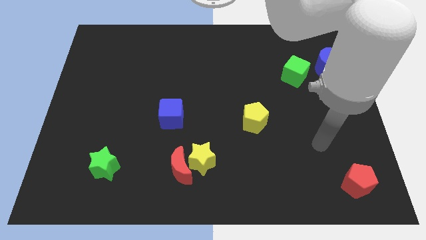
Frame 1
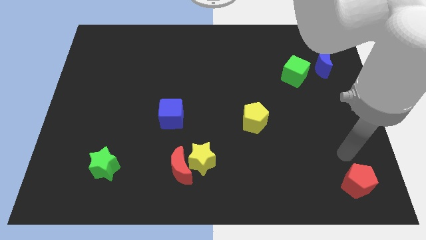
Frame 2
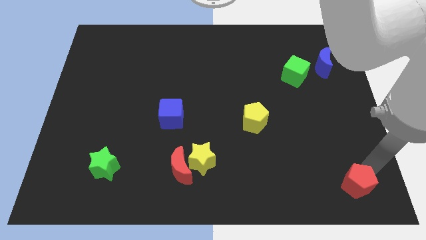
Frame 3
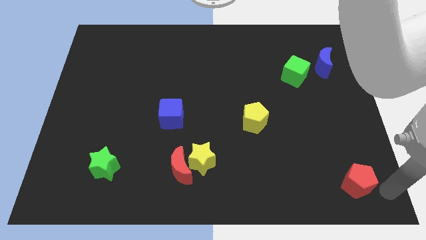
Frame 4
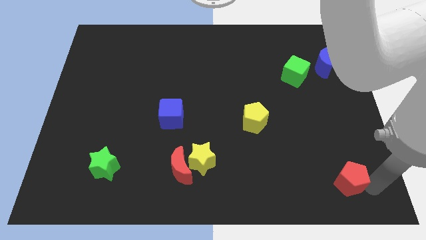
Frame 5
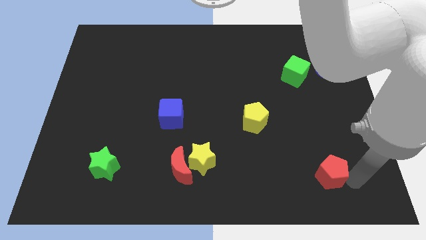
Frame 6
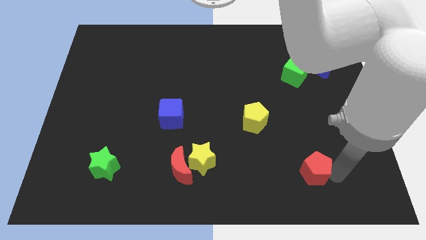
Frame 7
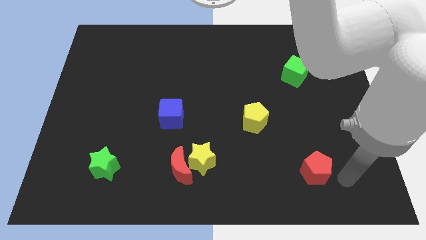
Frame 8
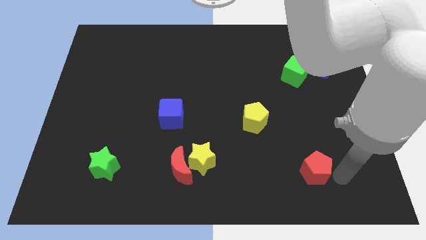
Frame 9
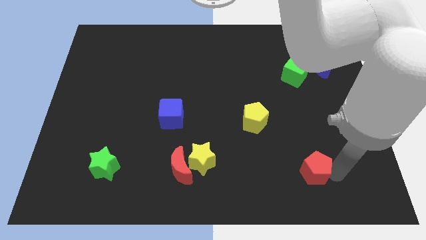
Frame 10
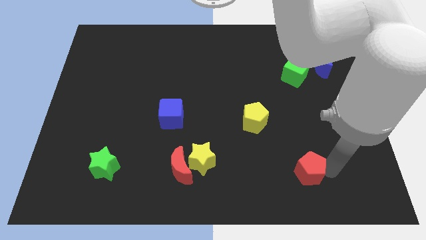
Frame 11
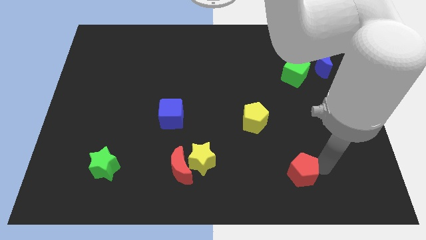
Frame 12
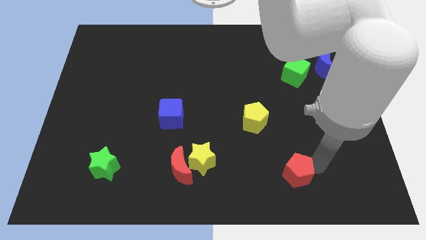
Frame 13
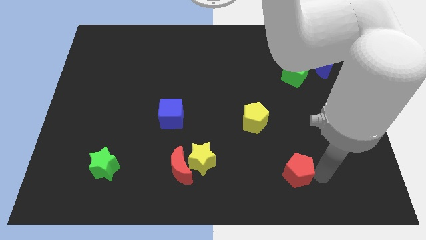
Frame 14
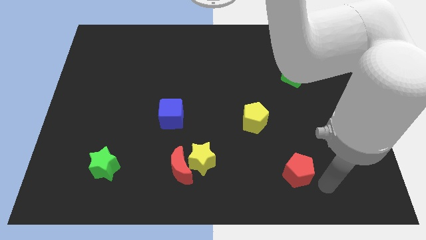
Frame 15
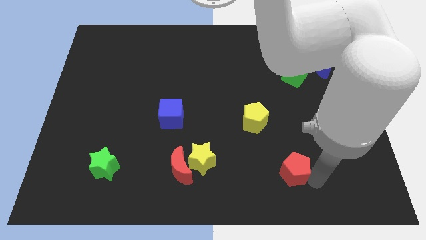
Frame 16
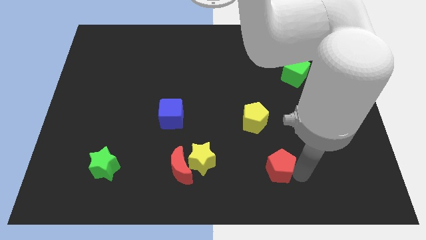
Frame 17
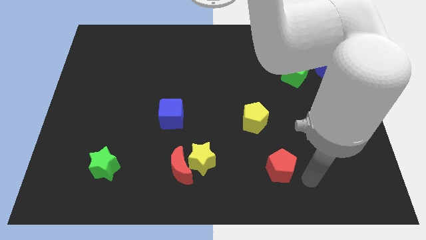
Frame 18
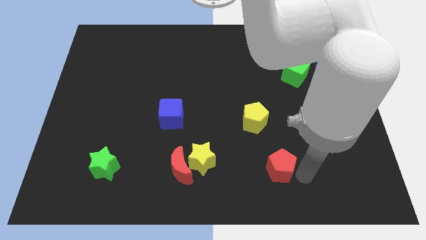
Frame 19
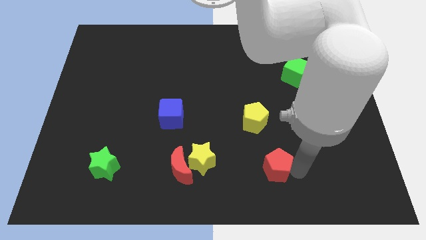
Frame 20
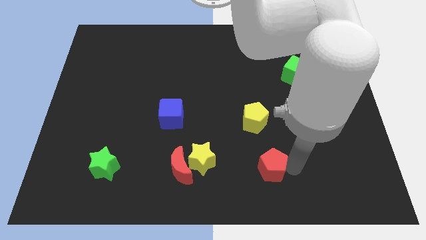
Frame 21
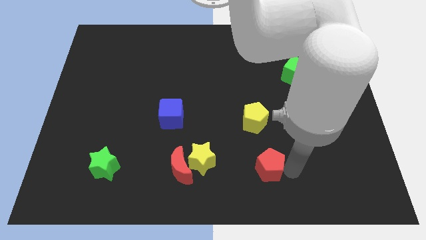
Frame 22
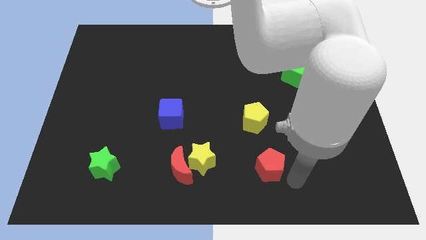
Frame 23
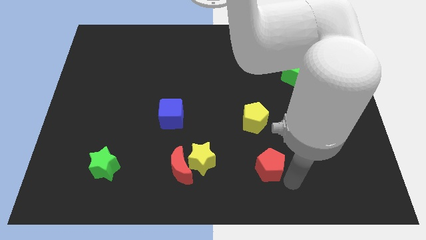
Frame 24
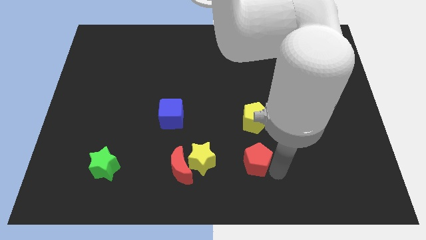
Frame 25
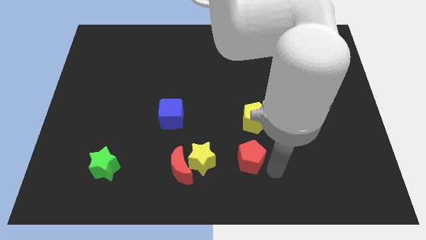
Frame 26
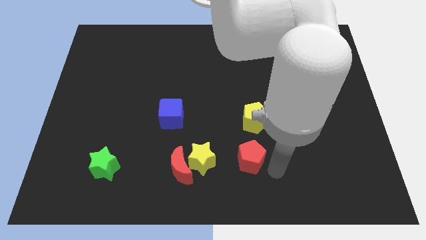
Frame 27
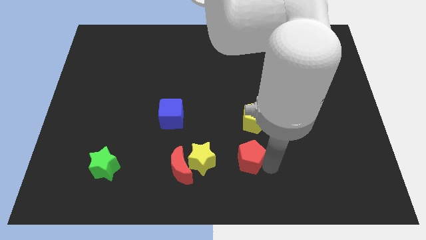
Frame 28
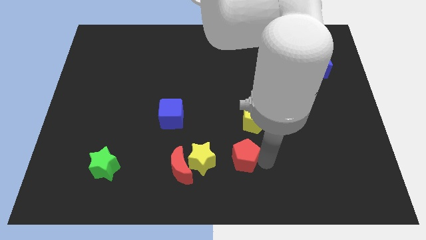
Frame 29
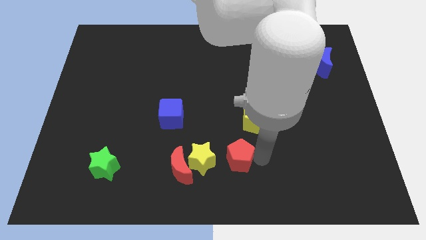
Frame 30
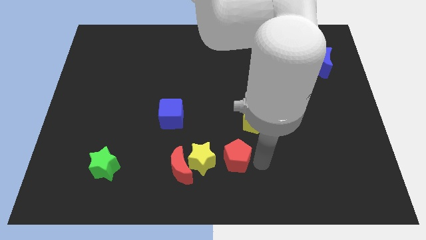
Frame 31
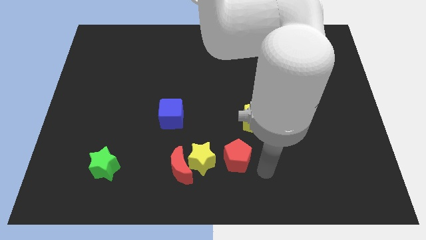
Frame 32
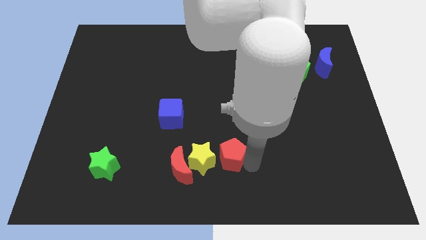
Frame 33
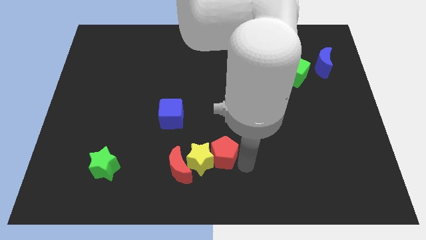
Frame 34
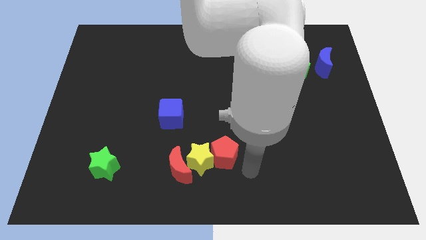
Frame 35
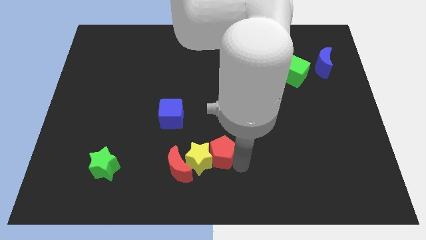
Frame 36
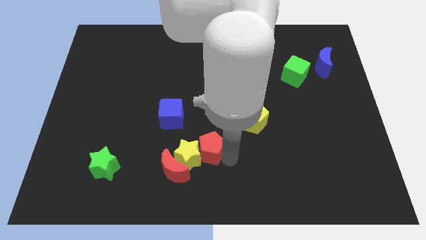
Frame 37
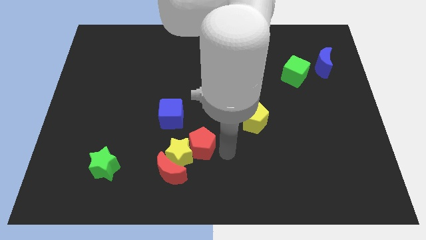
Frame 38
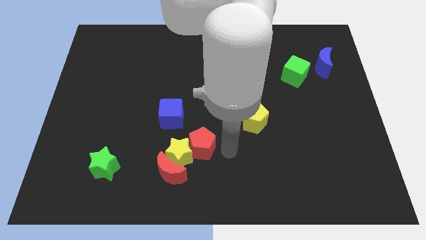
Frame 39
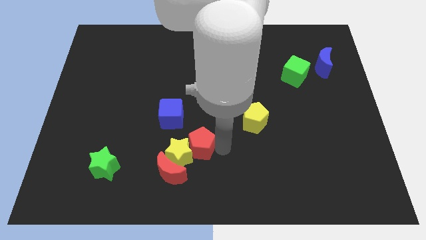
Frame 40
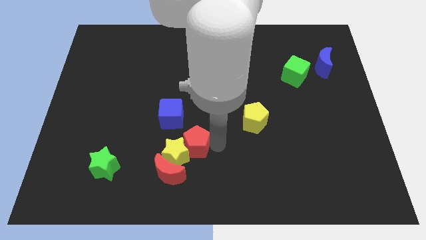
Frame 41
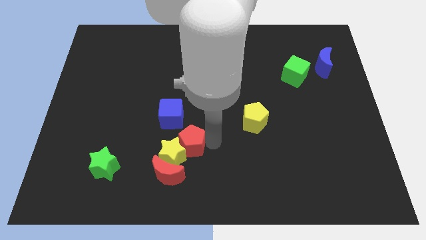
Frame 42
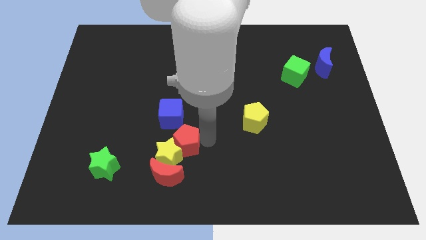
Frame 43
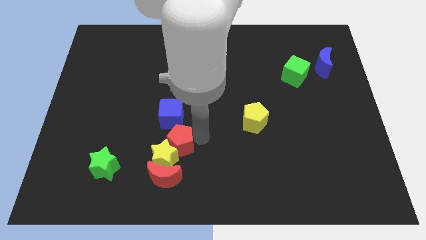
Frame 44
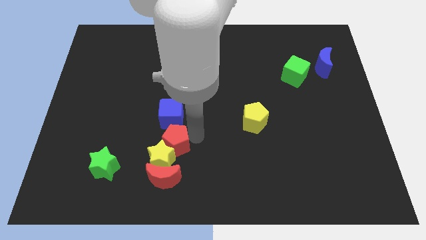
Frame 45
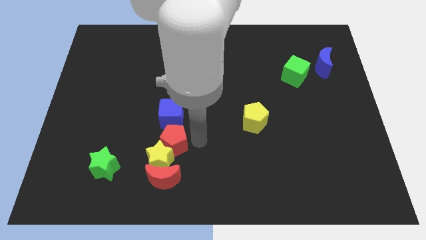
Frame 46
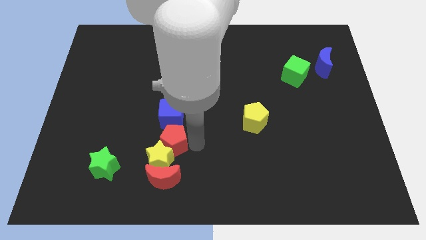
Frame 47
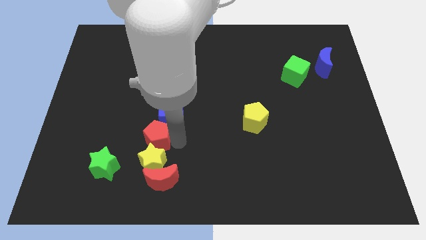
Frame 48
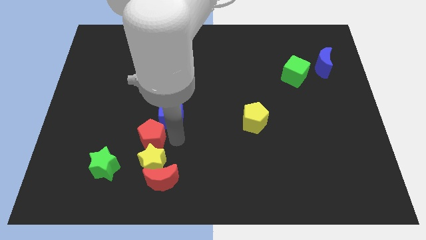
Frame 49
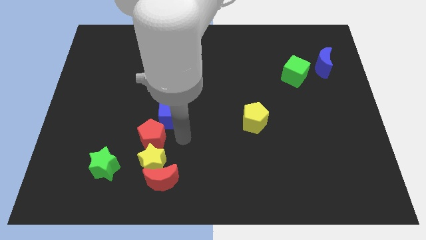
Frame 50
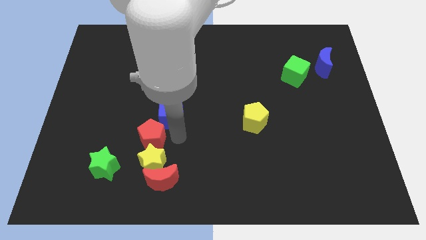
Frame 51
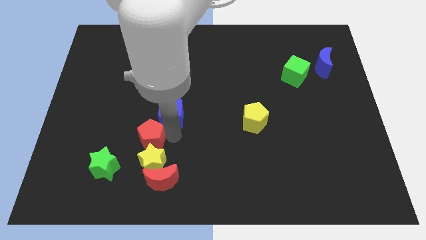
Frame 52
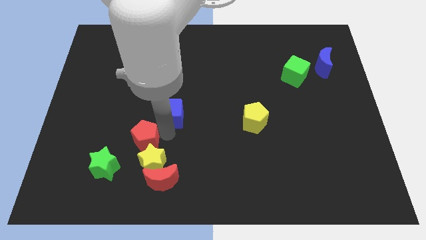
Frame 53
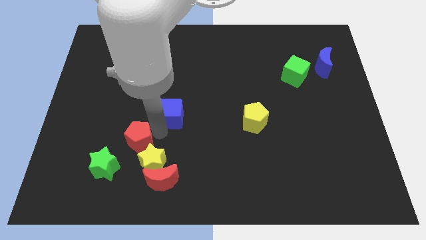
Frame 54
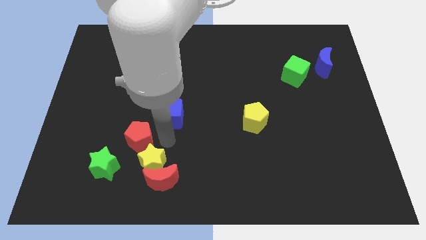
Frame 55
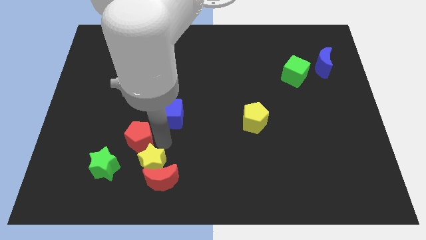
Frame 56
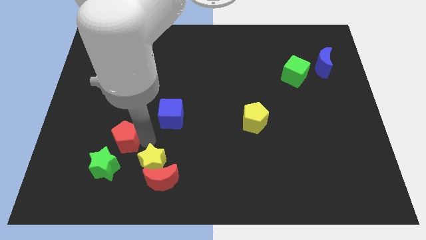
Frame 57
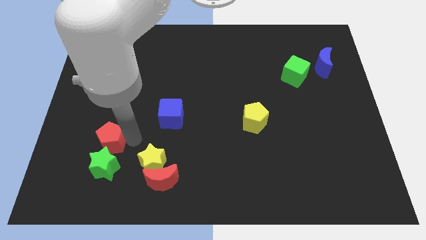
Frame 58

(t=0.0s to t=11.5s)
put the red pentagon diagonally up and to the left of the green star

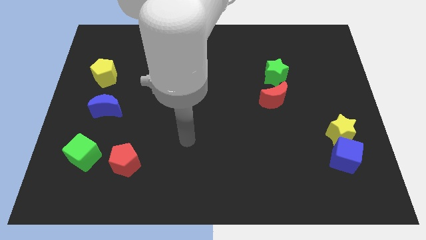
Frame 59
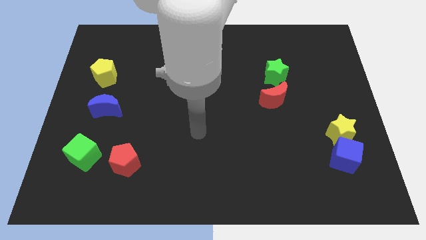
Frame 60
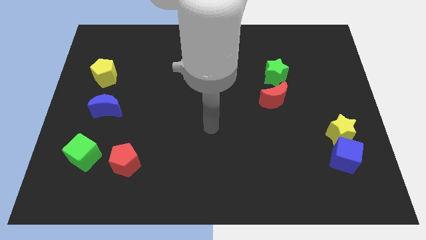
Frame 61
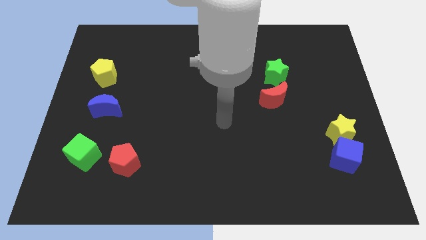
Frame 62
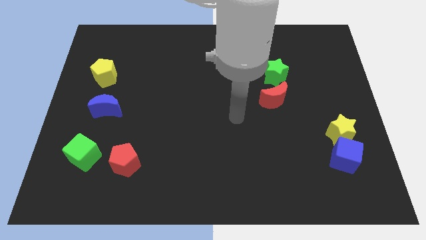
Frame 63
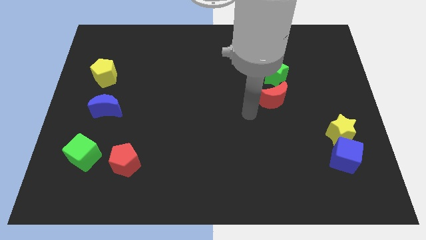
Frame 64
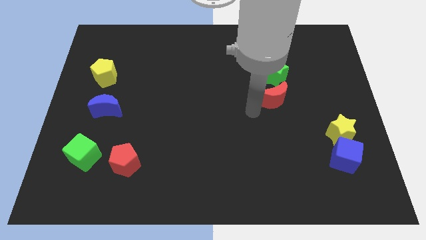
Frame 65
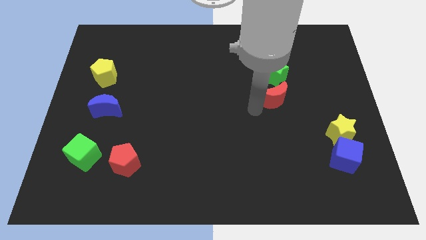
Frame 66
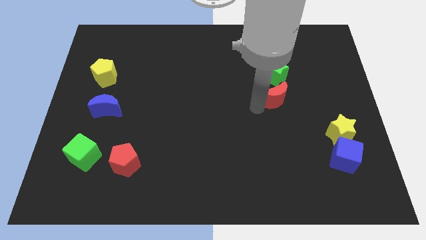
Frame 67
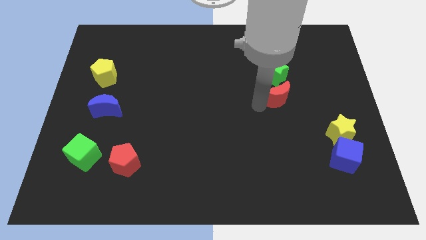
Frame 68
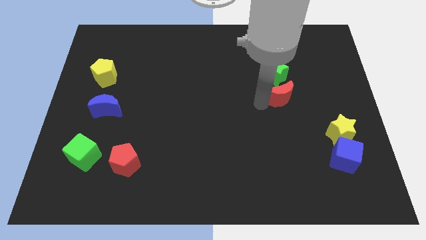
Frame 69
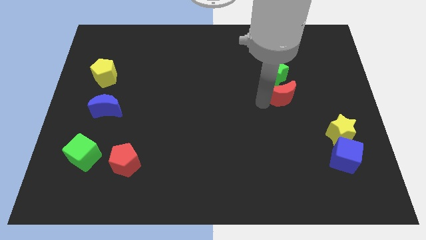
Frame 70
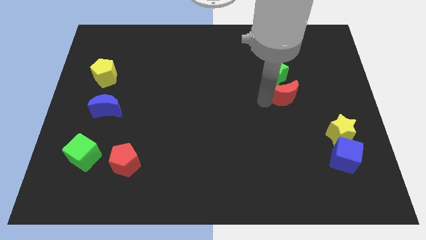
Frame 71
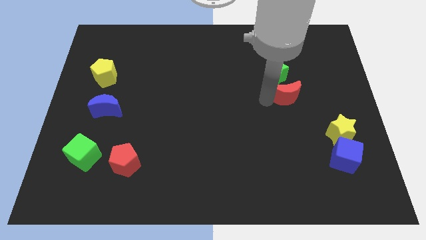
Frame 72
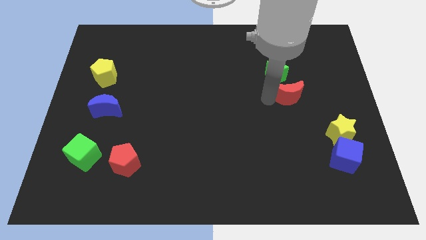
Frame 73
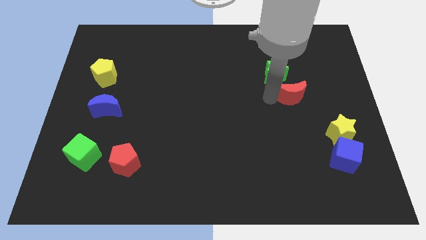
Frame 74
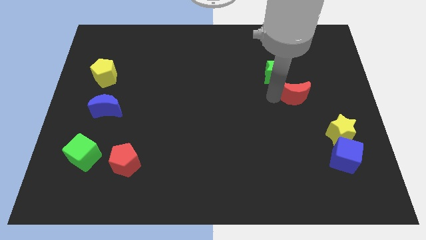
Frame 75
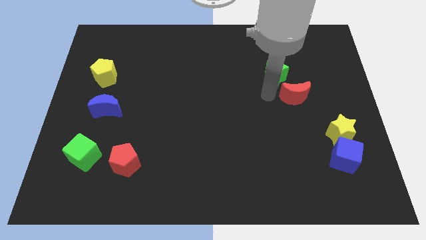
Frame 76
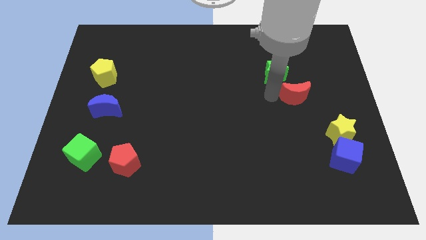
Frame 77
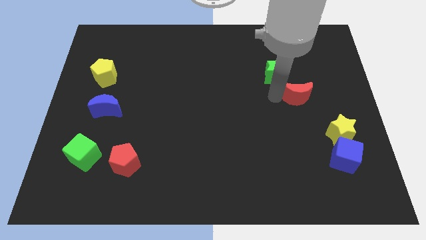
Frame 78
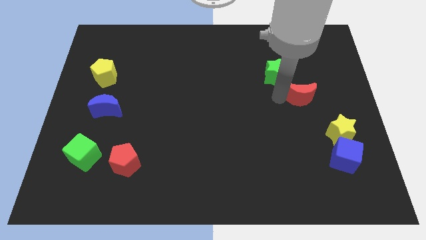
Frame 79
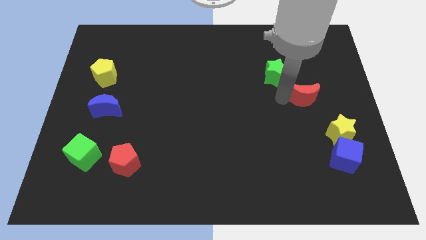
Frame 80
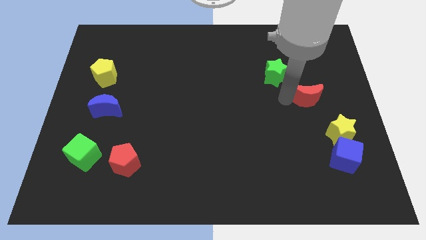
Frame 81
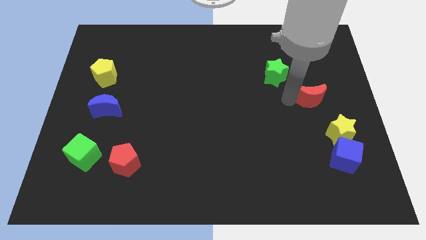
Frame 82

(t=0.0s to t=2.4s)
put the red moon to the top side of the yellow star
